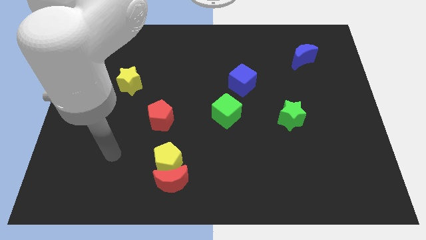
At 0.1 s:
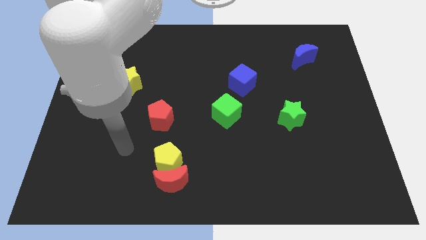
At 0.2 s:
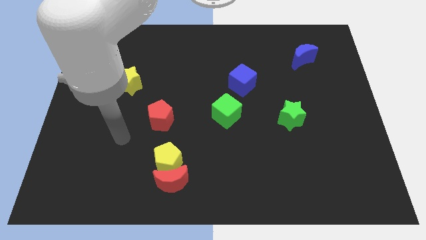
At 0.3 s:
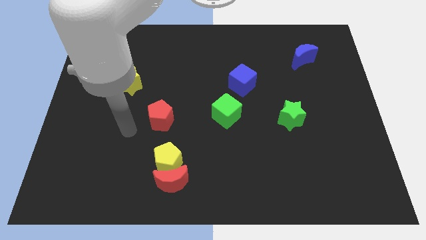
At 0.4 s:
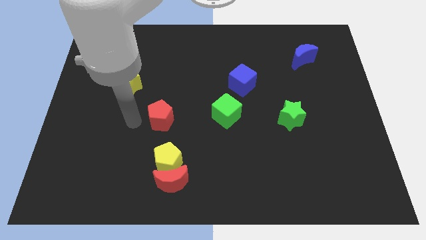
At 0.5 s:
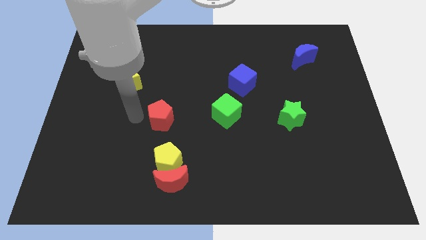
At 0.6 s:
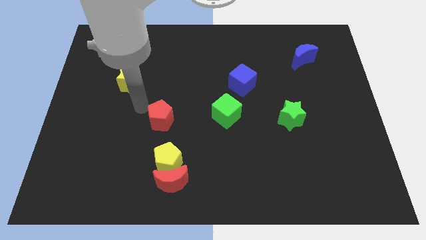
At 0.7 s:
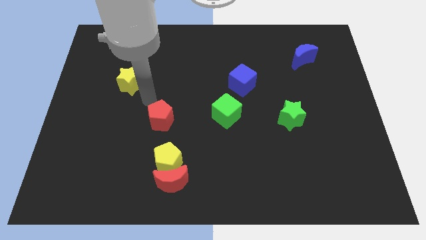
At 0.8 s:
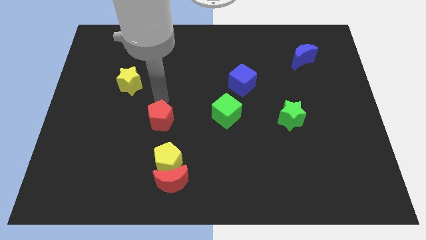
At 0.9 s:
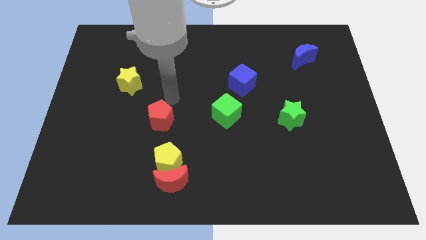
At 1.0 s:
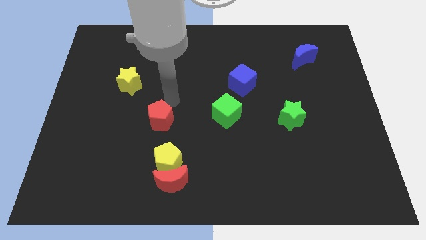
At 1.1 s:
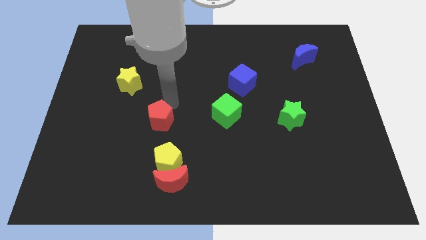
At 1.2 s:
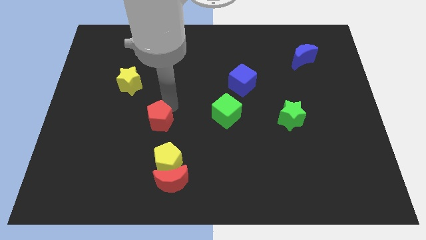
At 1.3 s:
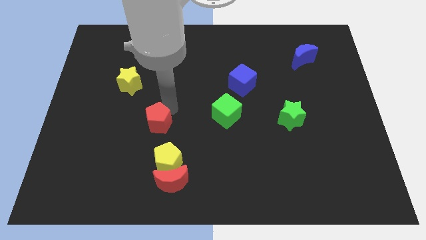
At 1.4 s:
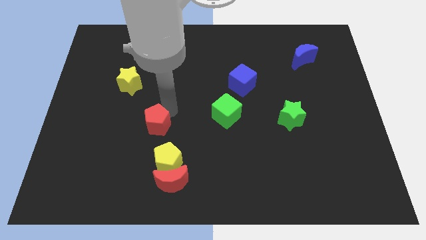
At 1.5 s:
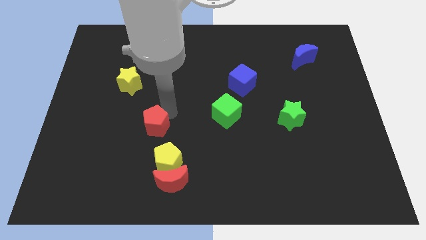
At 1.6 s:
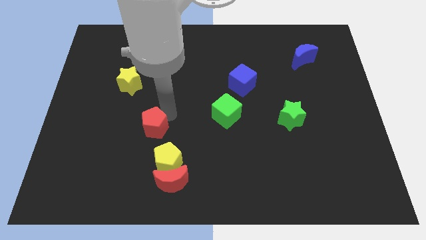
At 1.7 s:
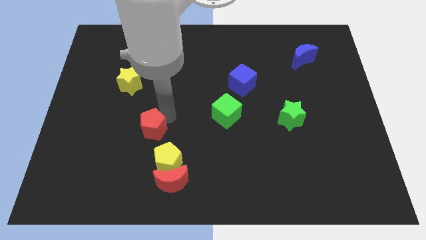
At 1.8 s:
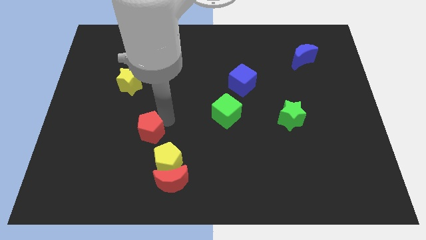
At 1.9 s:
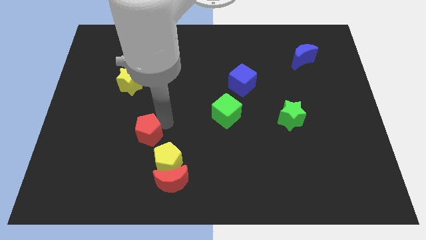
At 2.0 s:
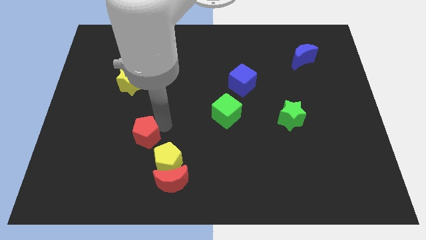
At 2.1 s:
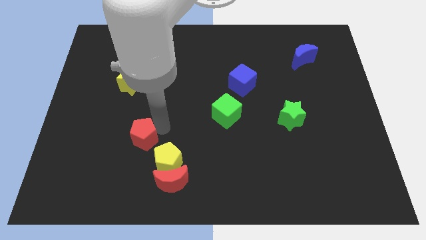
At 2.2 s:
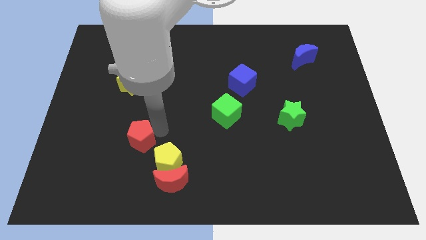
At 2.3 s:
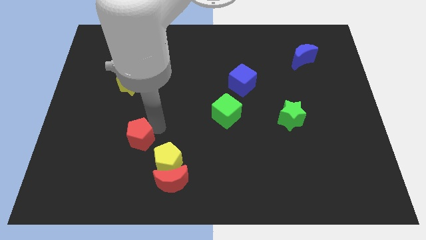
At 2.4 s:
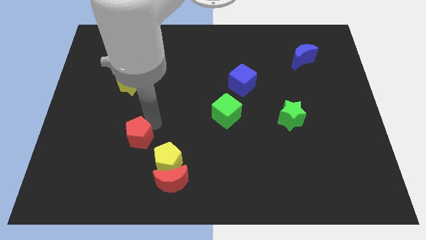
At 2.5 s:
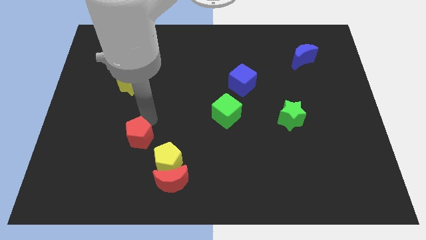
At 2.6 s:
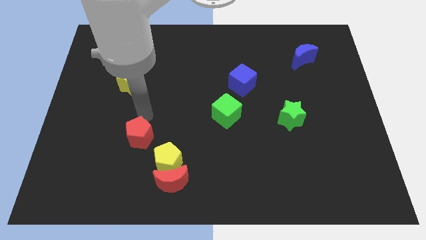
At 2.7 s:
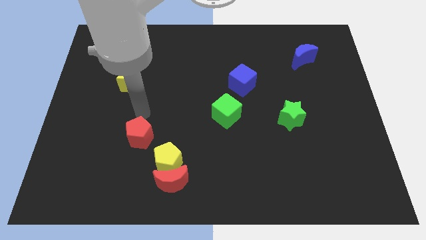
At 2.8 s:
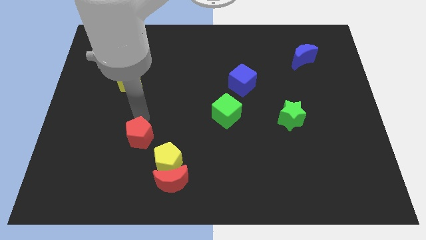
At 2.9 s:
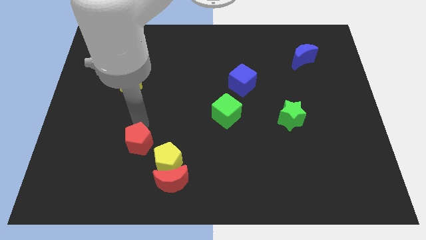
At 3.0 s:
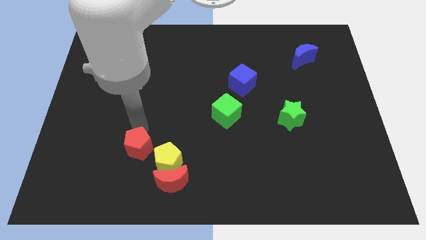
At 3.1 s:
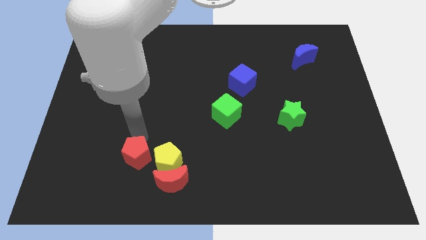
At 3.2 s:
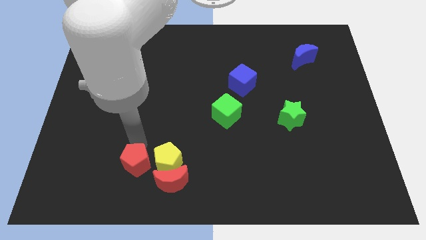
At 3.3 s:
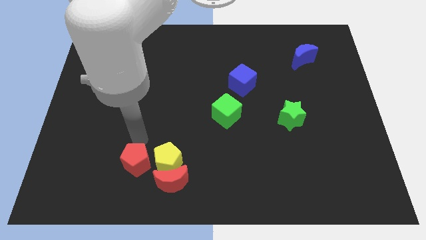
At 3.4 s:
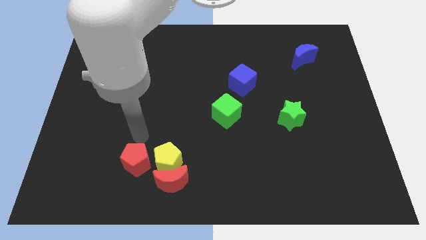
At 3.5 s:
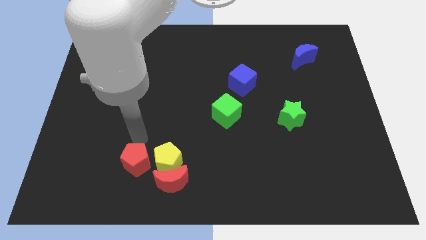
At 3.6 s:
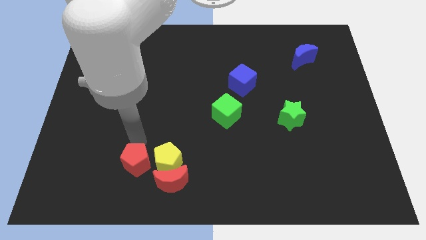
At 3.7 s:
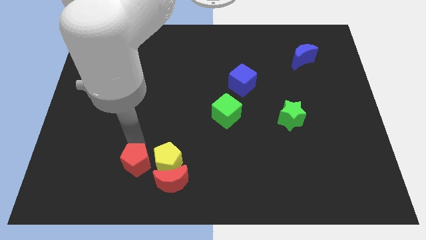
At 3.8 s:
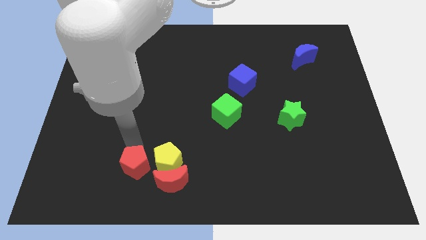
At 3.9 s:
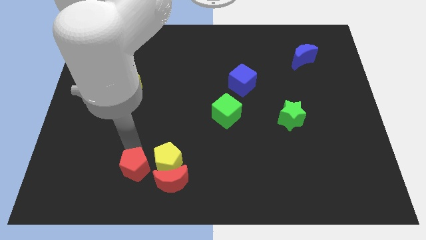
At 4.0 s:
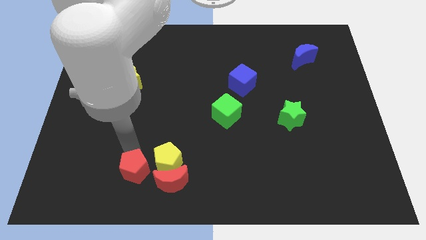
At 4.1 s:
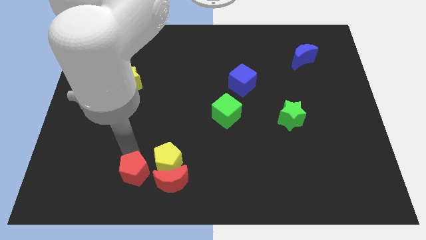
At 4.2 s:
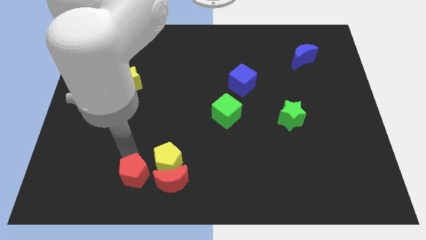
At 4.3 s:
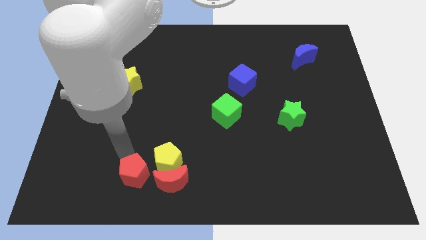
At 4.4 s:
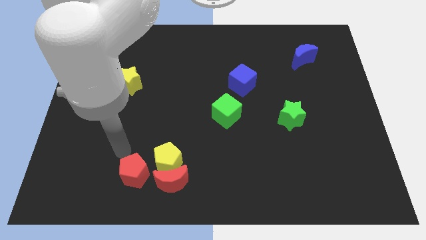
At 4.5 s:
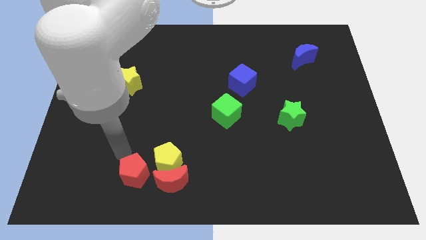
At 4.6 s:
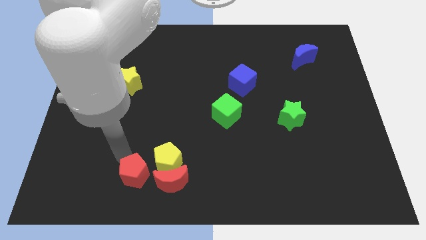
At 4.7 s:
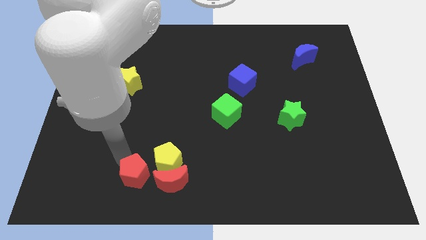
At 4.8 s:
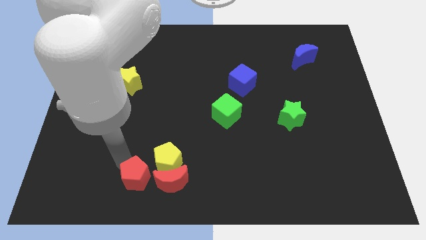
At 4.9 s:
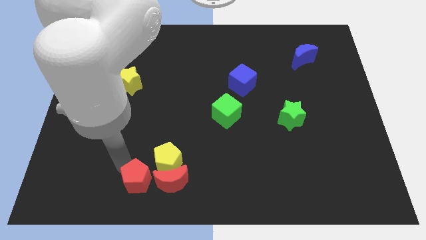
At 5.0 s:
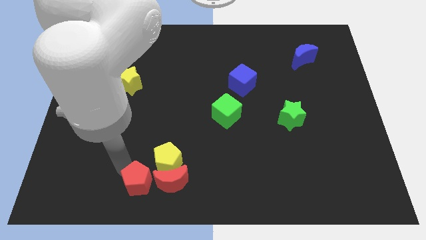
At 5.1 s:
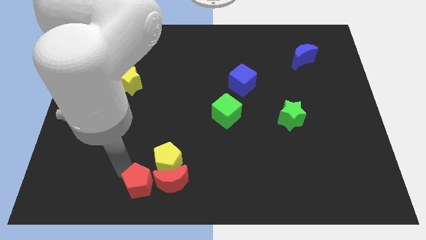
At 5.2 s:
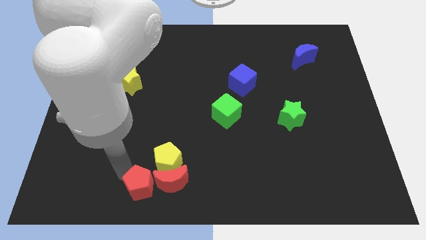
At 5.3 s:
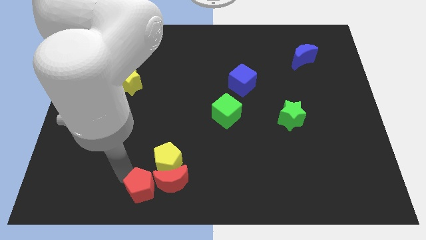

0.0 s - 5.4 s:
move the red pentagon next to the red moon

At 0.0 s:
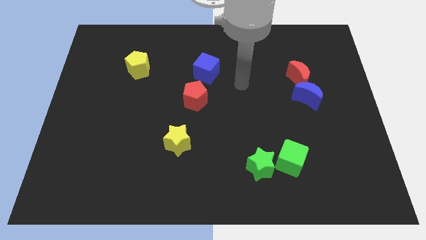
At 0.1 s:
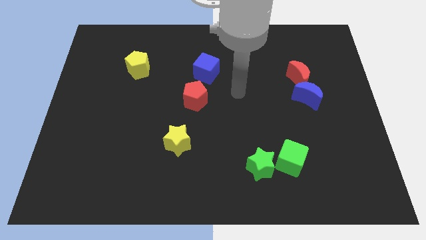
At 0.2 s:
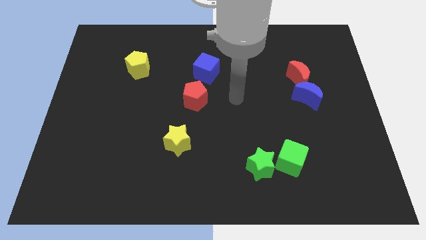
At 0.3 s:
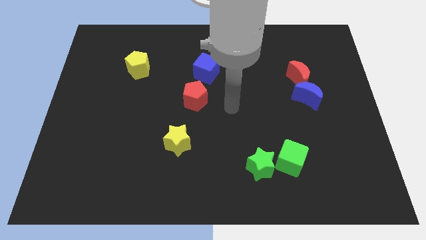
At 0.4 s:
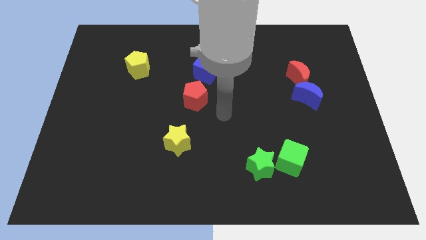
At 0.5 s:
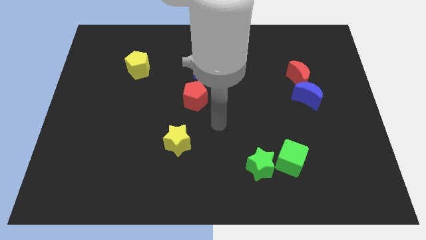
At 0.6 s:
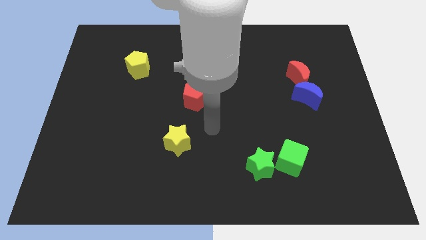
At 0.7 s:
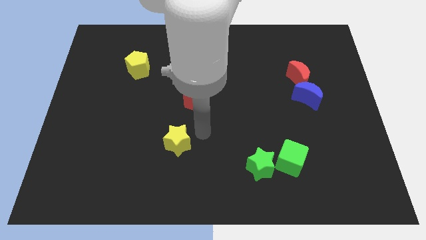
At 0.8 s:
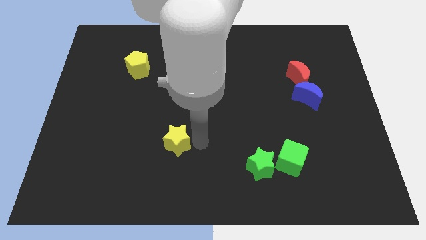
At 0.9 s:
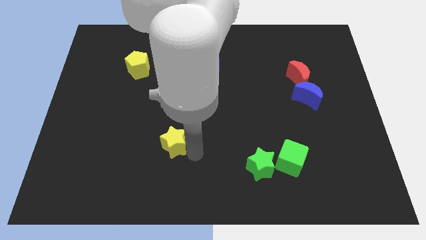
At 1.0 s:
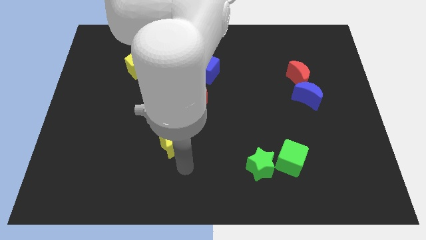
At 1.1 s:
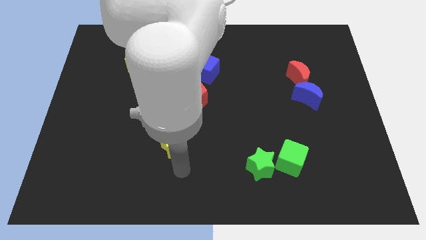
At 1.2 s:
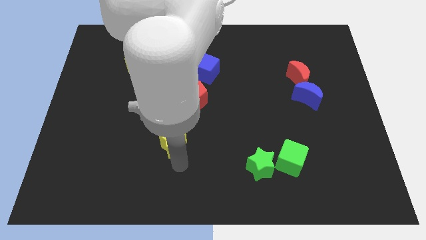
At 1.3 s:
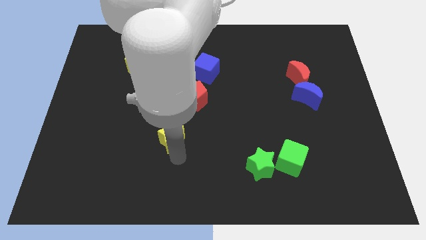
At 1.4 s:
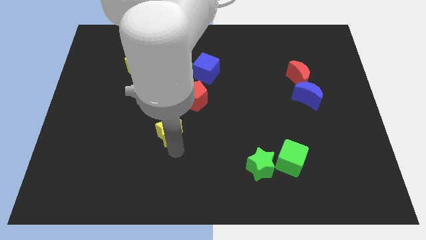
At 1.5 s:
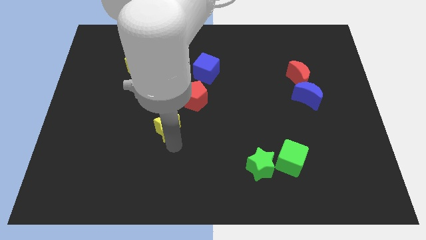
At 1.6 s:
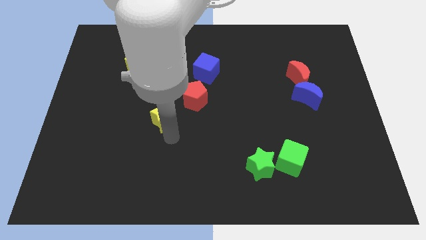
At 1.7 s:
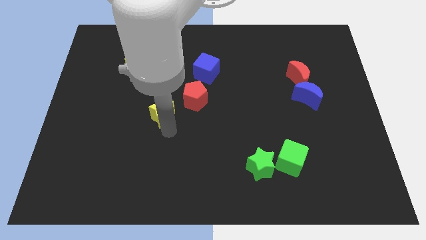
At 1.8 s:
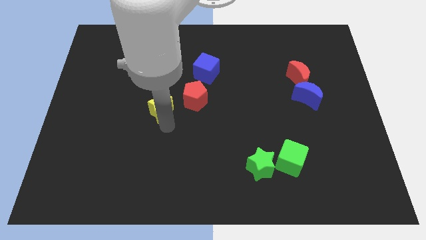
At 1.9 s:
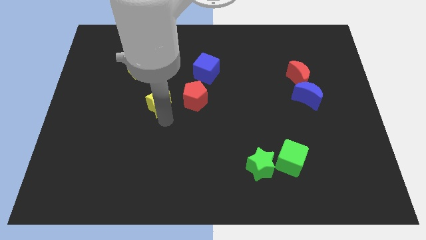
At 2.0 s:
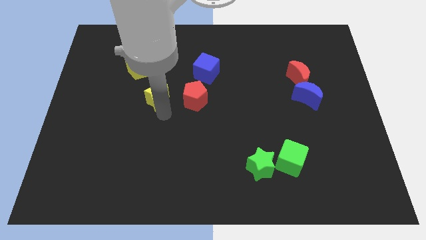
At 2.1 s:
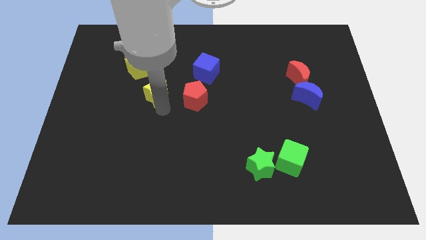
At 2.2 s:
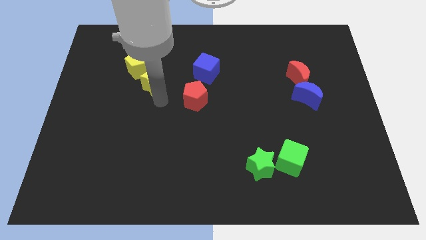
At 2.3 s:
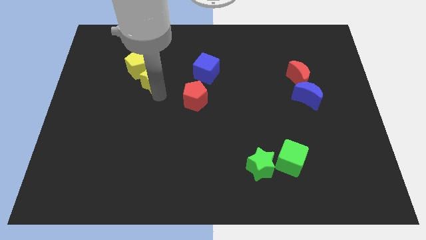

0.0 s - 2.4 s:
put the yellow star next to the yellow pentagon
